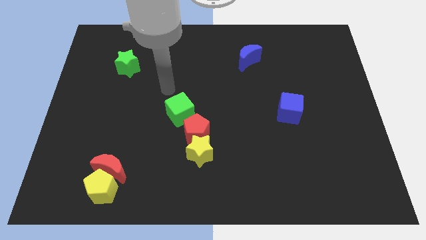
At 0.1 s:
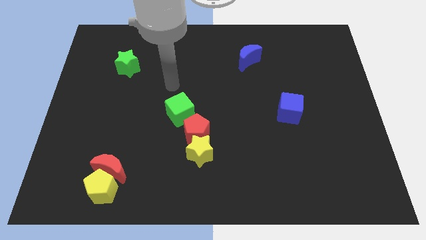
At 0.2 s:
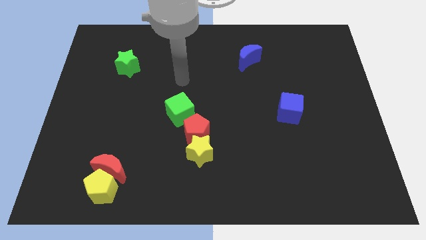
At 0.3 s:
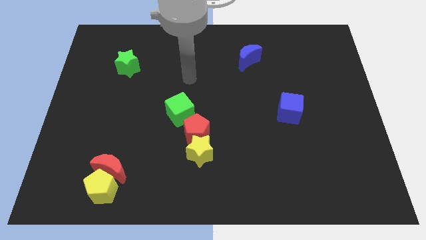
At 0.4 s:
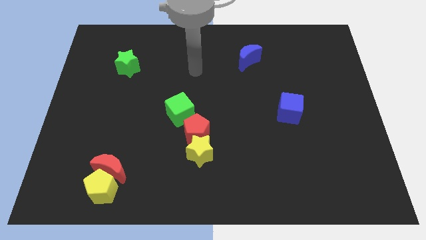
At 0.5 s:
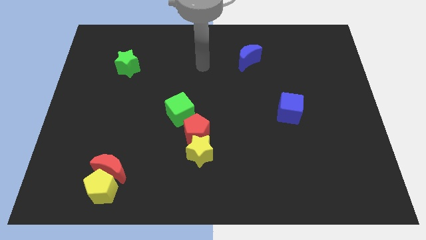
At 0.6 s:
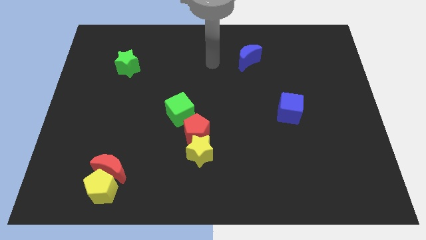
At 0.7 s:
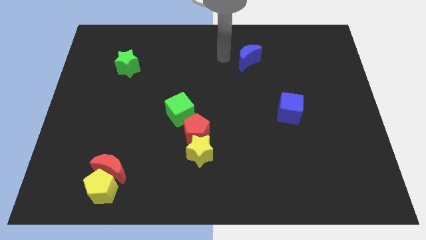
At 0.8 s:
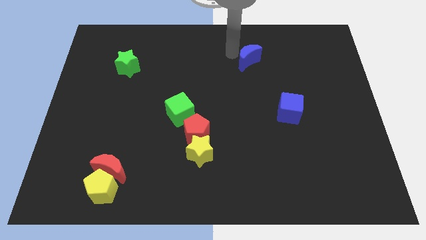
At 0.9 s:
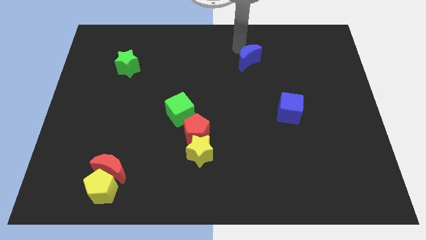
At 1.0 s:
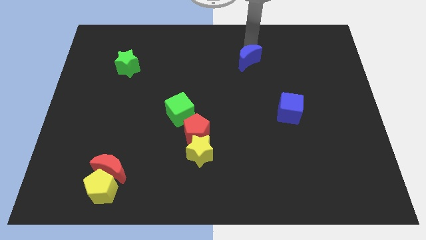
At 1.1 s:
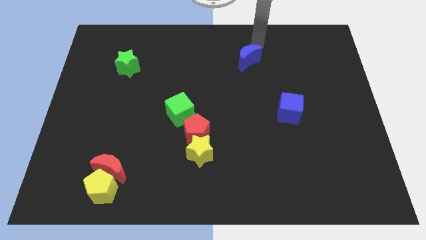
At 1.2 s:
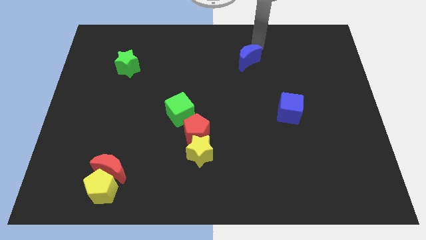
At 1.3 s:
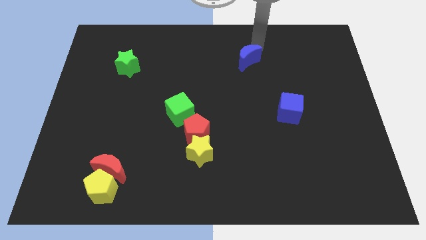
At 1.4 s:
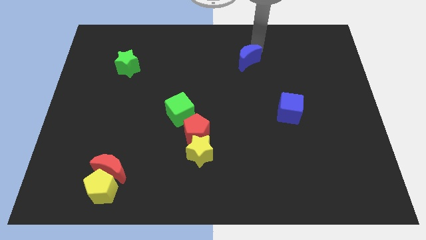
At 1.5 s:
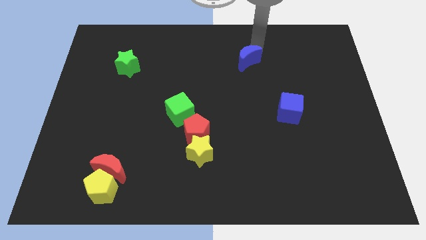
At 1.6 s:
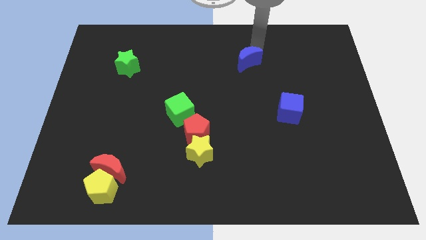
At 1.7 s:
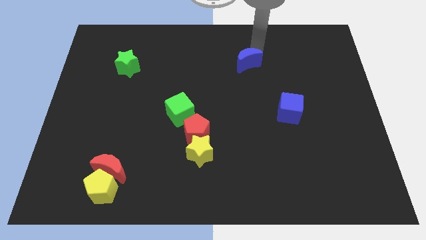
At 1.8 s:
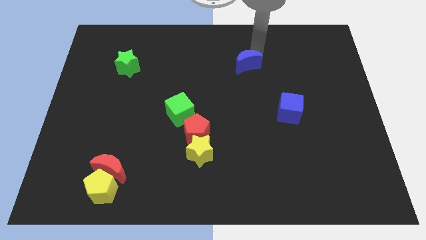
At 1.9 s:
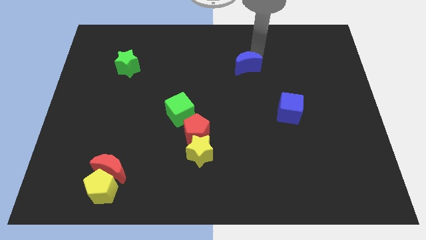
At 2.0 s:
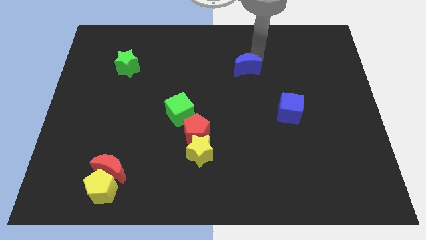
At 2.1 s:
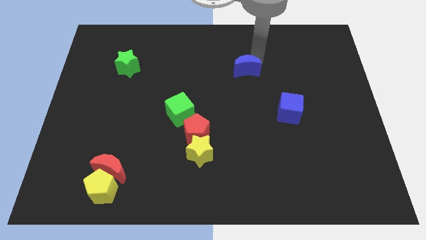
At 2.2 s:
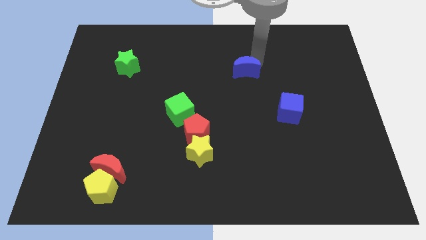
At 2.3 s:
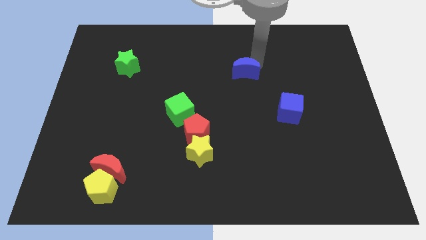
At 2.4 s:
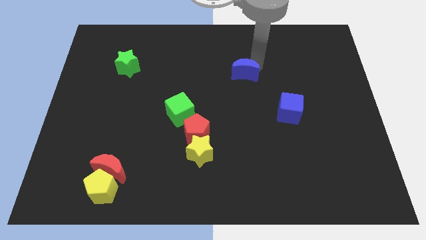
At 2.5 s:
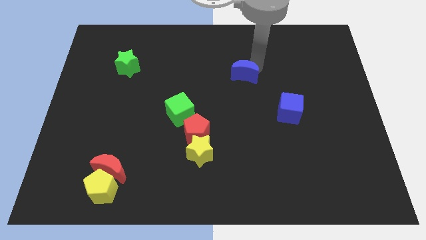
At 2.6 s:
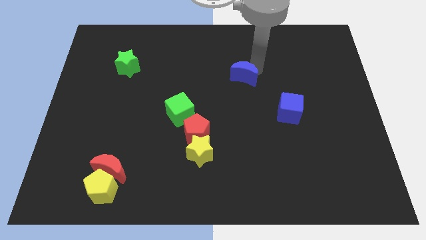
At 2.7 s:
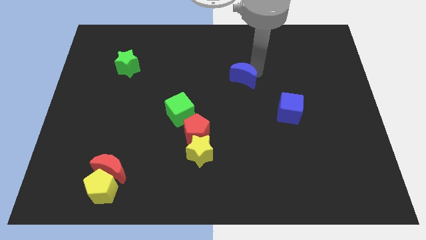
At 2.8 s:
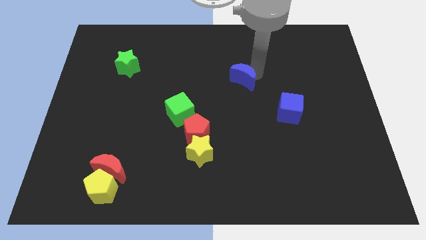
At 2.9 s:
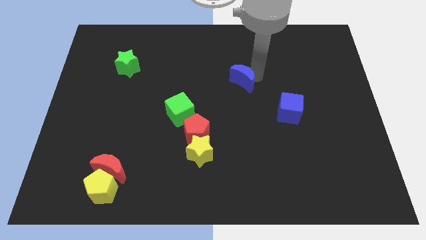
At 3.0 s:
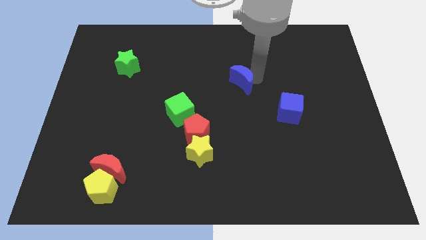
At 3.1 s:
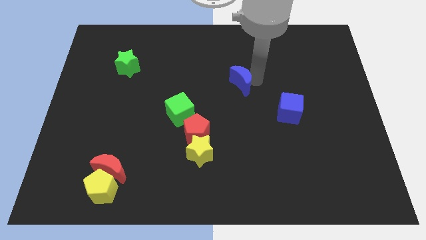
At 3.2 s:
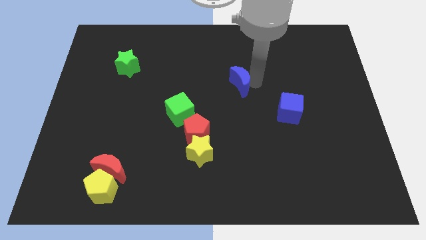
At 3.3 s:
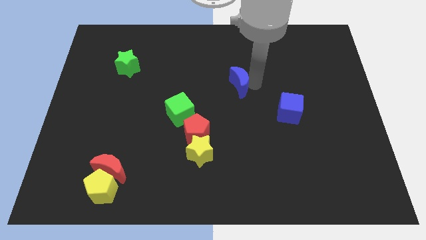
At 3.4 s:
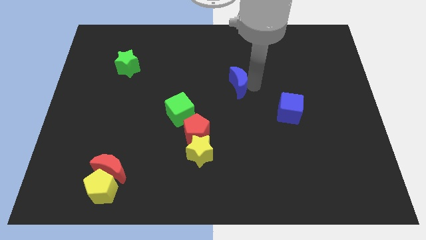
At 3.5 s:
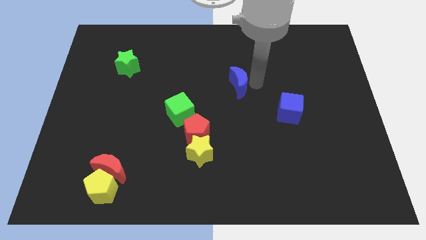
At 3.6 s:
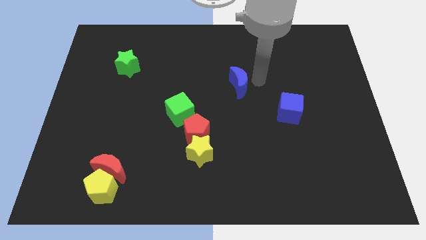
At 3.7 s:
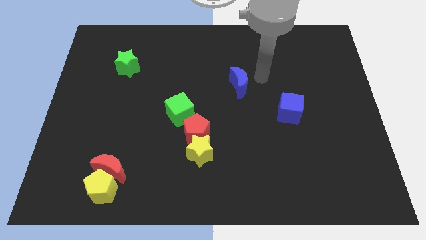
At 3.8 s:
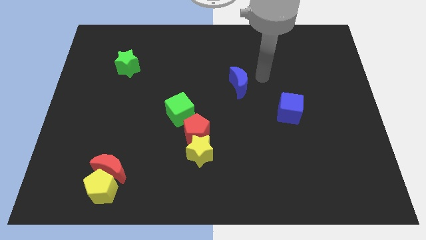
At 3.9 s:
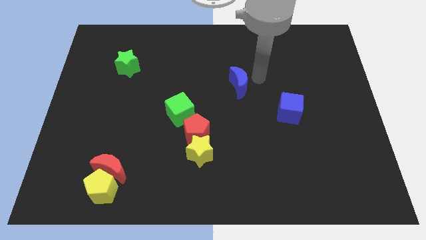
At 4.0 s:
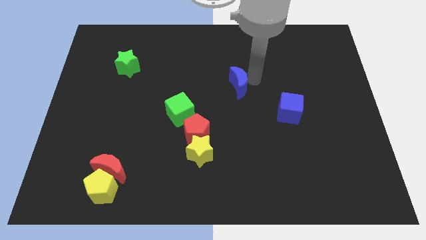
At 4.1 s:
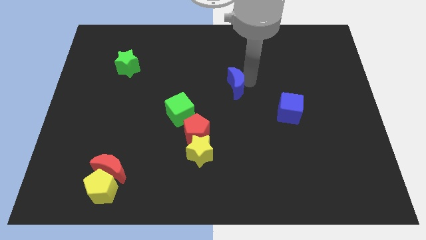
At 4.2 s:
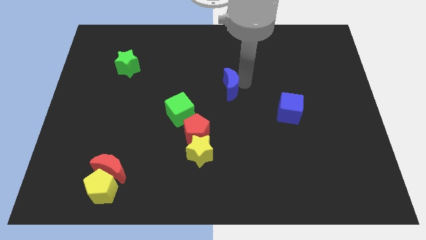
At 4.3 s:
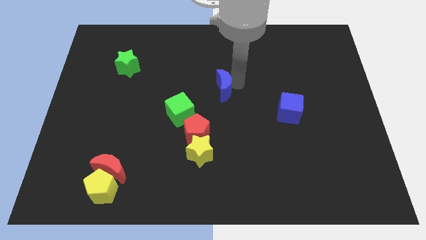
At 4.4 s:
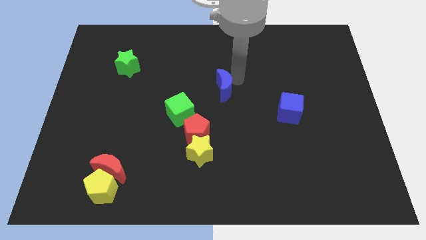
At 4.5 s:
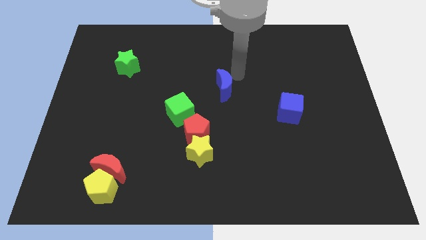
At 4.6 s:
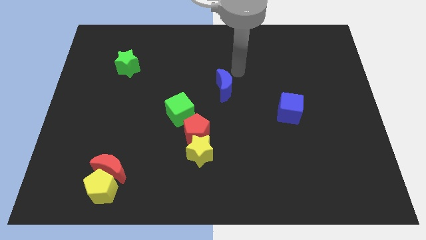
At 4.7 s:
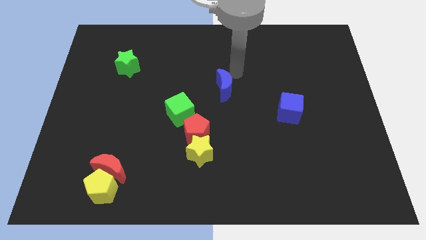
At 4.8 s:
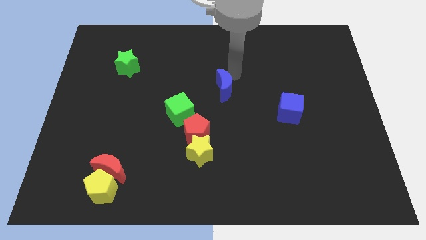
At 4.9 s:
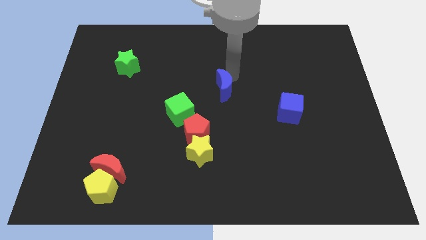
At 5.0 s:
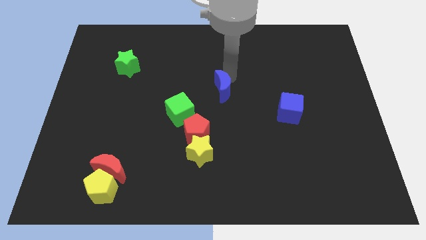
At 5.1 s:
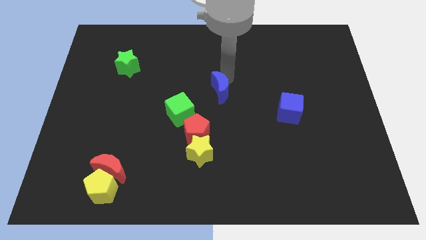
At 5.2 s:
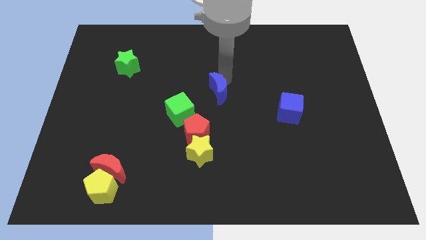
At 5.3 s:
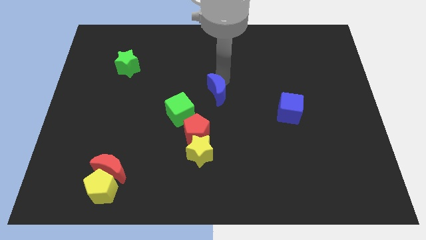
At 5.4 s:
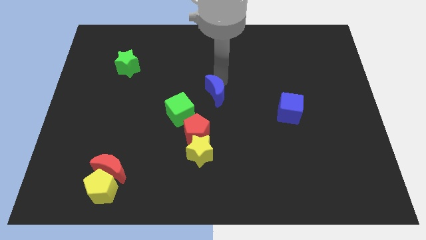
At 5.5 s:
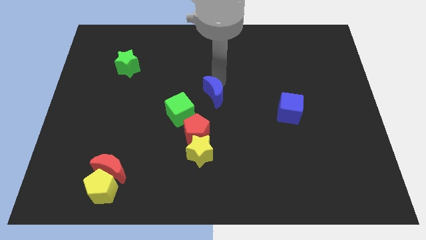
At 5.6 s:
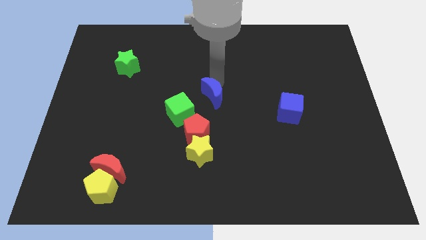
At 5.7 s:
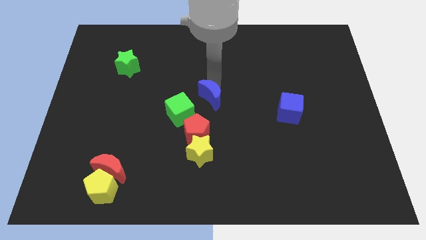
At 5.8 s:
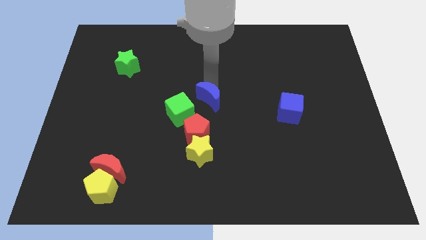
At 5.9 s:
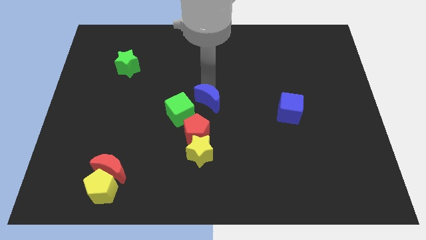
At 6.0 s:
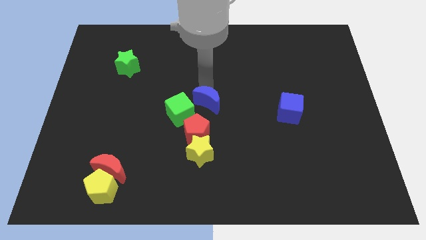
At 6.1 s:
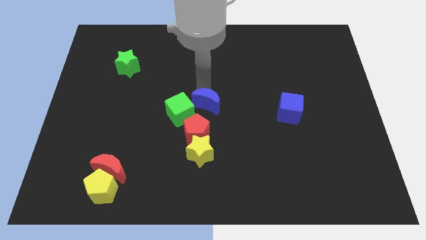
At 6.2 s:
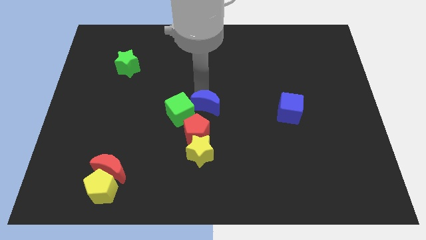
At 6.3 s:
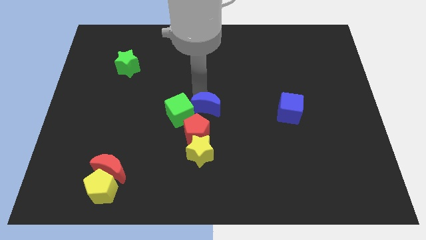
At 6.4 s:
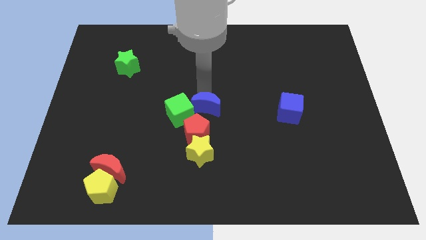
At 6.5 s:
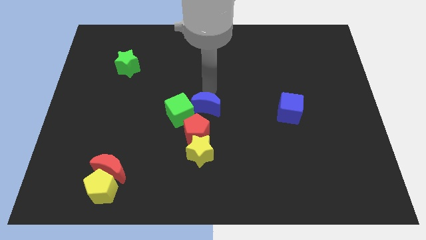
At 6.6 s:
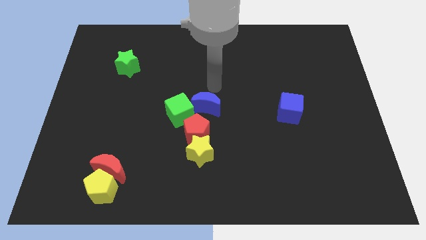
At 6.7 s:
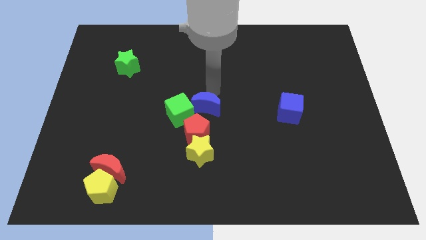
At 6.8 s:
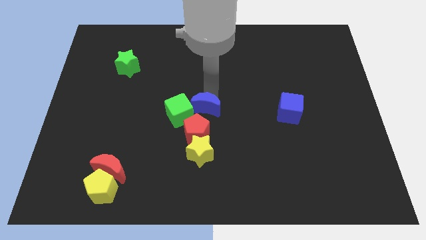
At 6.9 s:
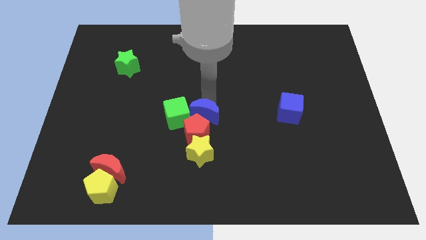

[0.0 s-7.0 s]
slide the blue moon to the red pentagon

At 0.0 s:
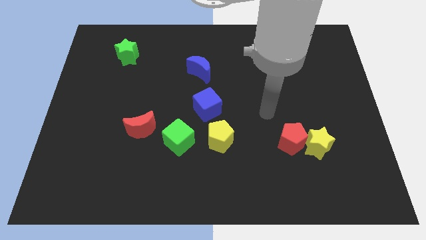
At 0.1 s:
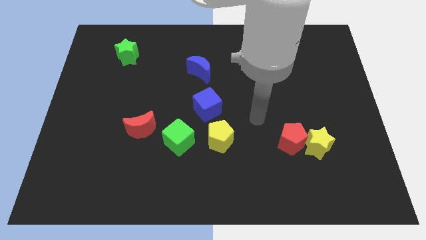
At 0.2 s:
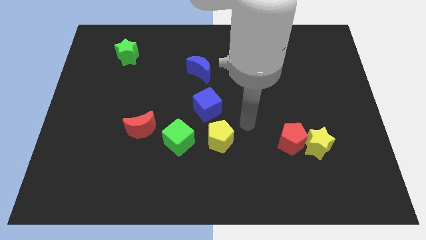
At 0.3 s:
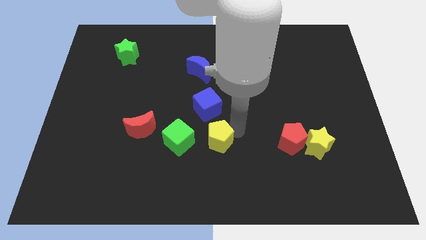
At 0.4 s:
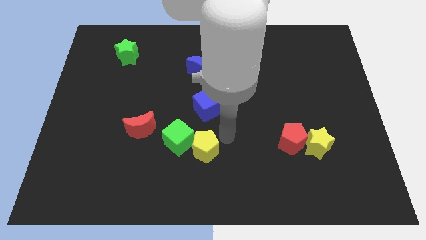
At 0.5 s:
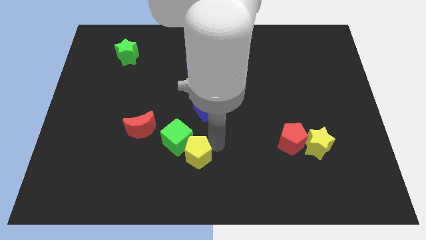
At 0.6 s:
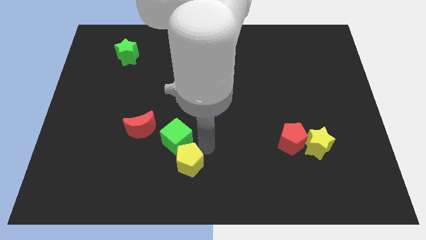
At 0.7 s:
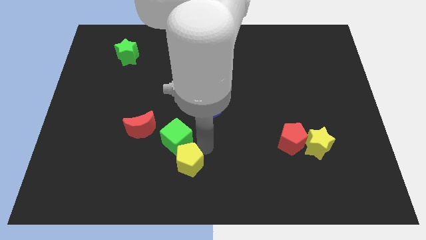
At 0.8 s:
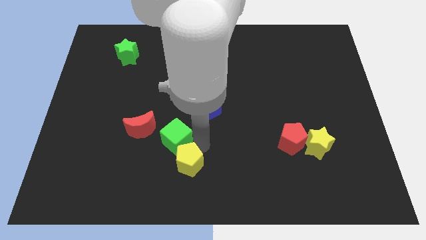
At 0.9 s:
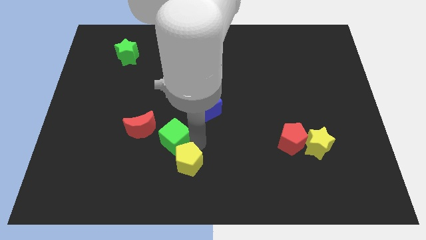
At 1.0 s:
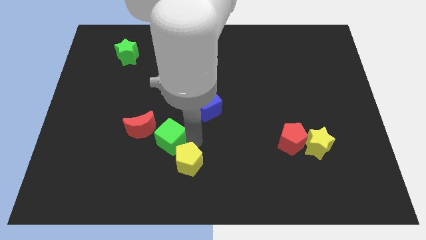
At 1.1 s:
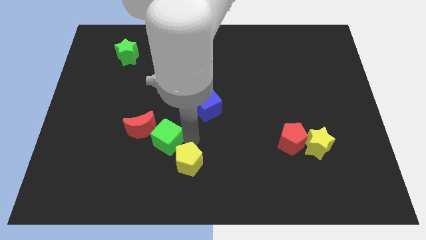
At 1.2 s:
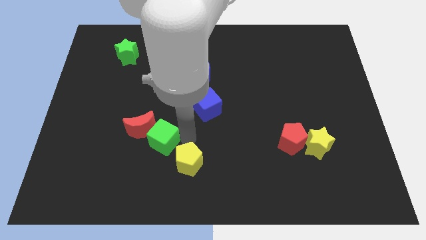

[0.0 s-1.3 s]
move the green cube next to the red moon
